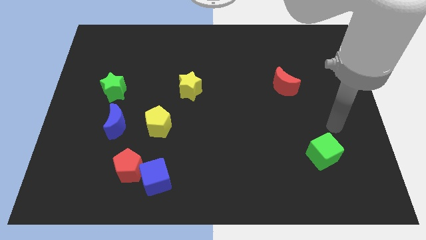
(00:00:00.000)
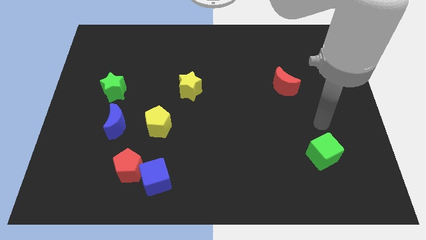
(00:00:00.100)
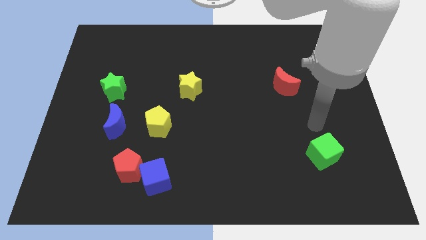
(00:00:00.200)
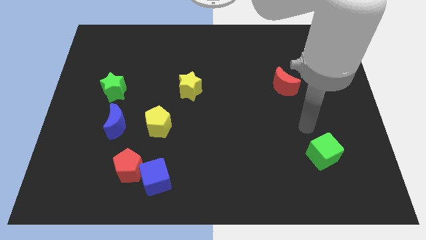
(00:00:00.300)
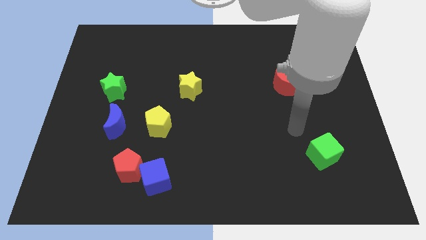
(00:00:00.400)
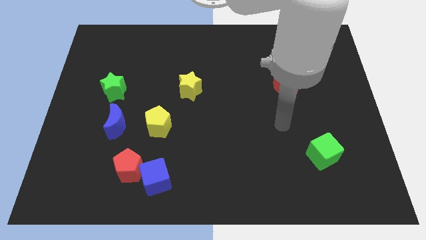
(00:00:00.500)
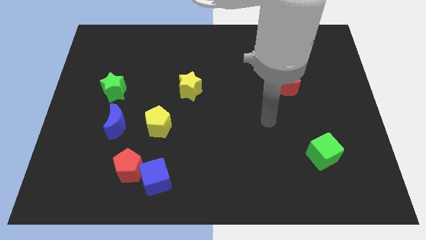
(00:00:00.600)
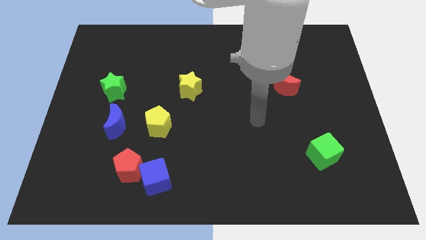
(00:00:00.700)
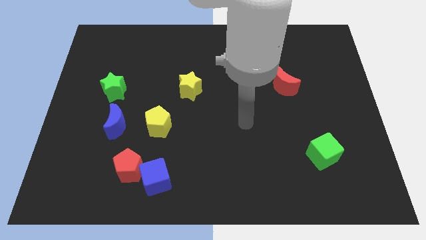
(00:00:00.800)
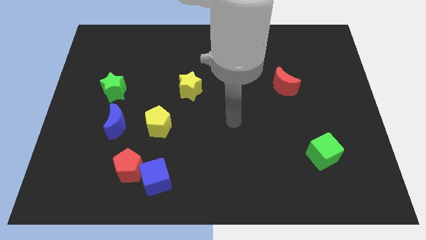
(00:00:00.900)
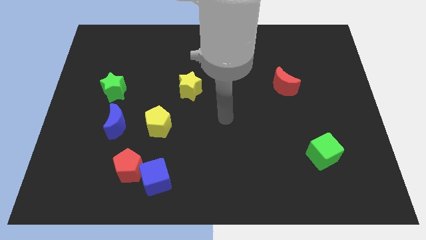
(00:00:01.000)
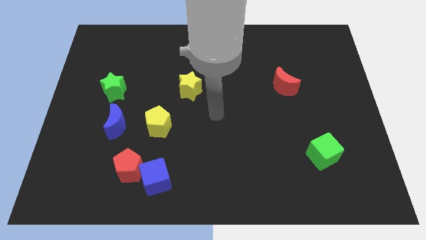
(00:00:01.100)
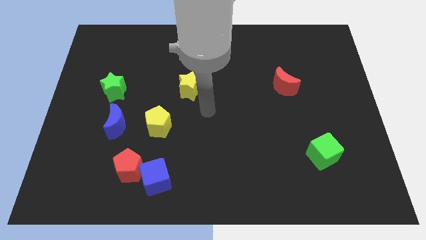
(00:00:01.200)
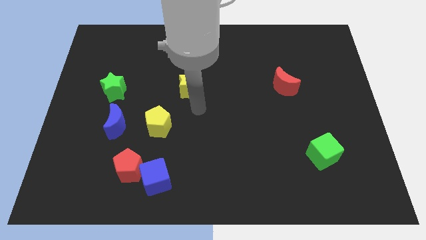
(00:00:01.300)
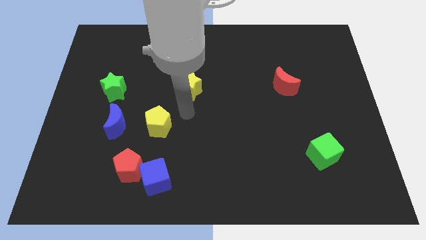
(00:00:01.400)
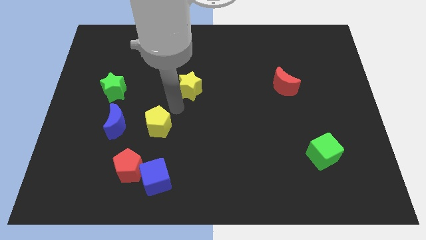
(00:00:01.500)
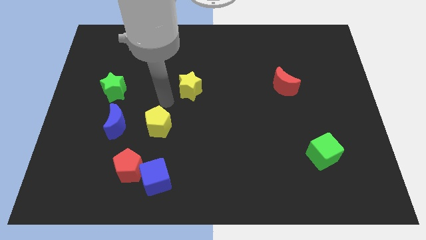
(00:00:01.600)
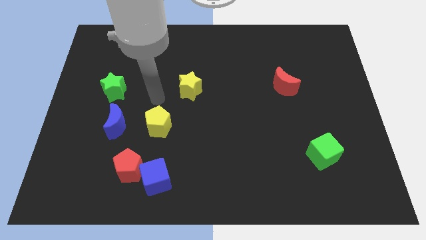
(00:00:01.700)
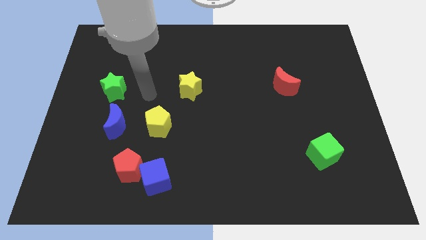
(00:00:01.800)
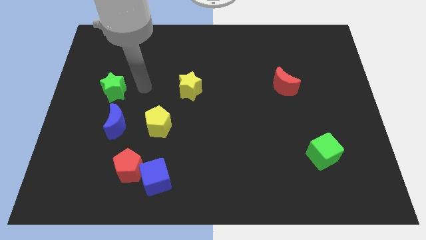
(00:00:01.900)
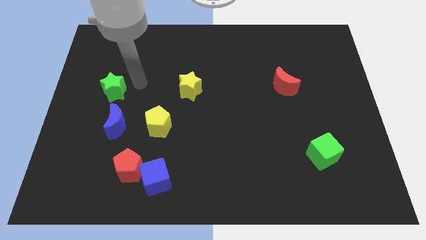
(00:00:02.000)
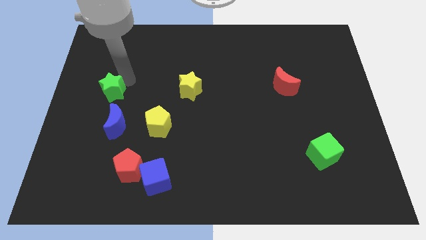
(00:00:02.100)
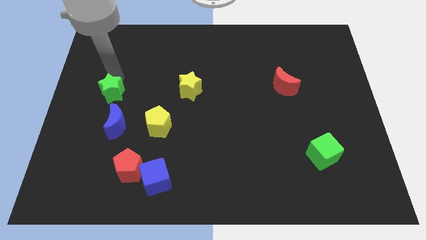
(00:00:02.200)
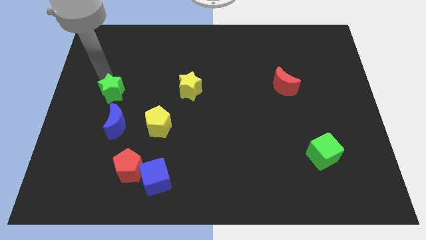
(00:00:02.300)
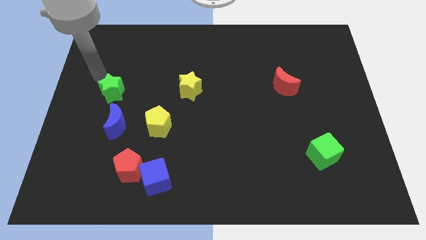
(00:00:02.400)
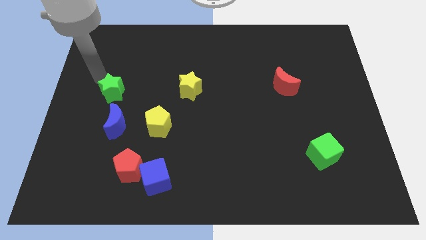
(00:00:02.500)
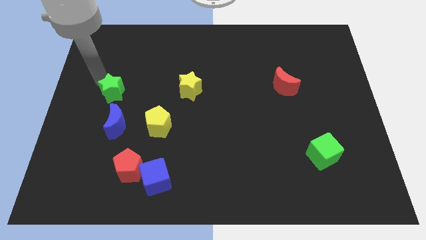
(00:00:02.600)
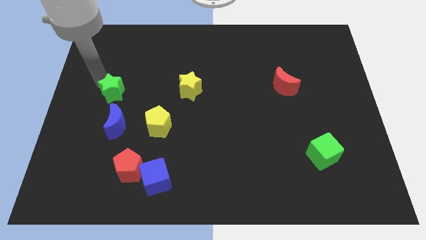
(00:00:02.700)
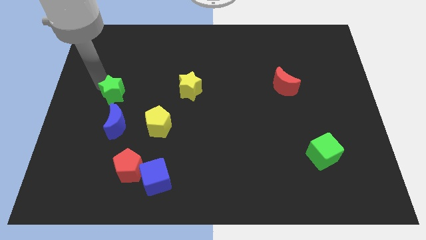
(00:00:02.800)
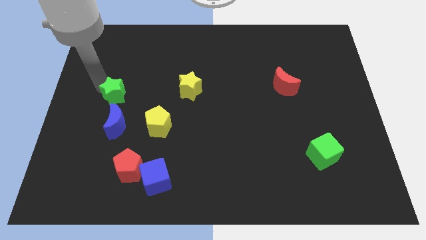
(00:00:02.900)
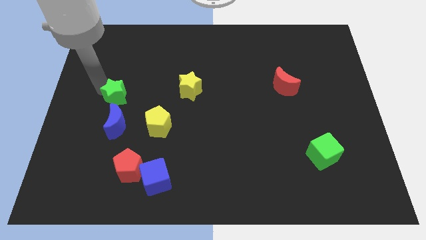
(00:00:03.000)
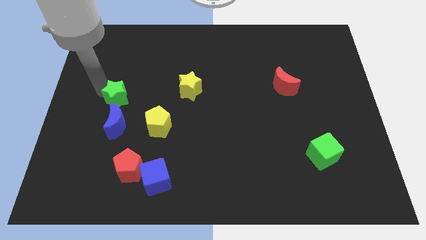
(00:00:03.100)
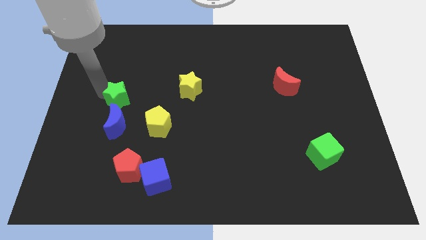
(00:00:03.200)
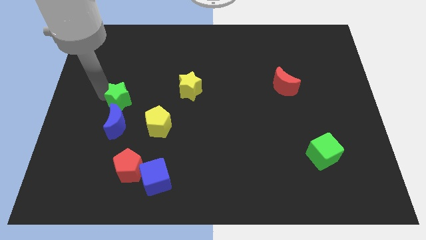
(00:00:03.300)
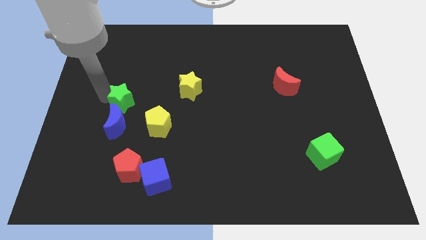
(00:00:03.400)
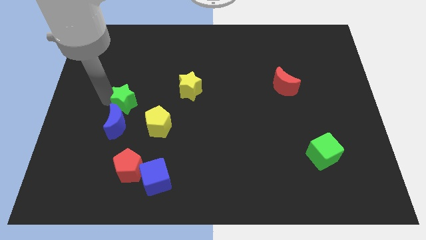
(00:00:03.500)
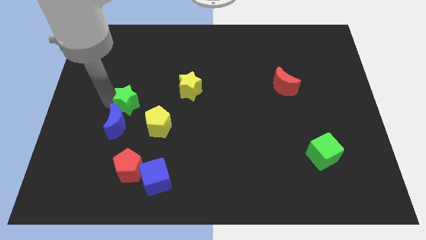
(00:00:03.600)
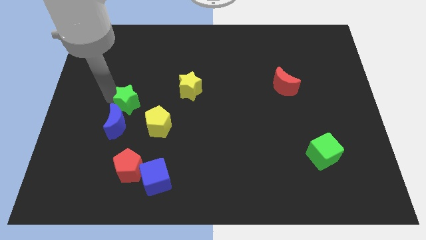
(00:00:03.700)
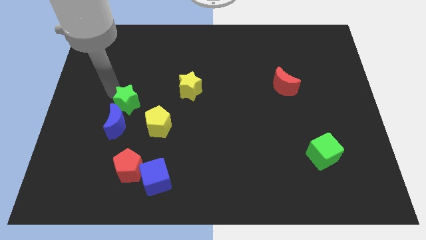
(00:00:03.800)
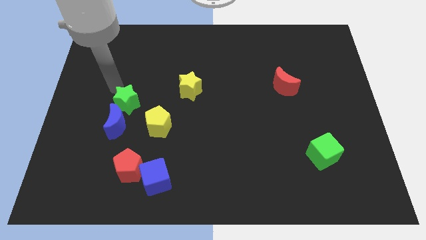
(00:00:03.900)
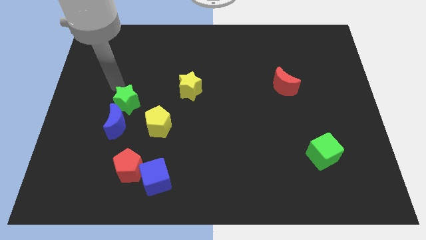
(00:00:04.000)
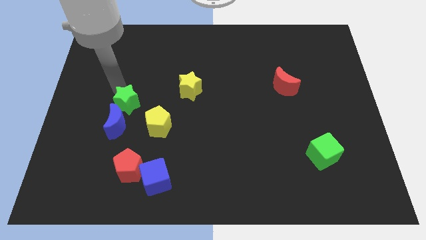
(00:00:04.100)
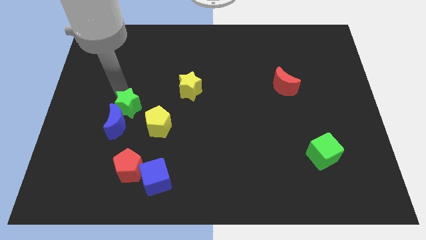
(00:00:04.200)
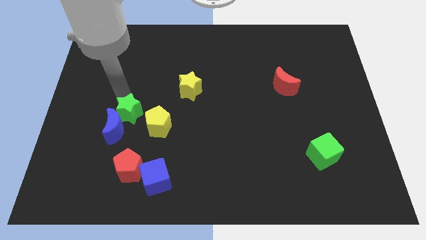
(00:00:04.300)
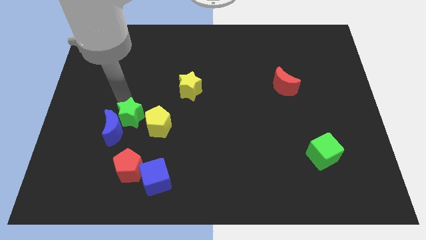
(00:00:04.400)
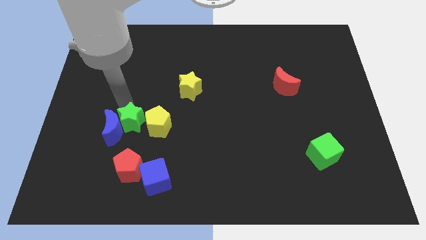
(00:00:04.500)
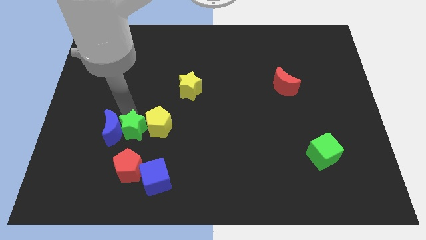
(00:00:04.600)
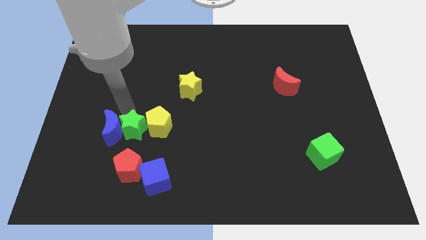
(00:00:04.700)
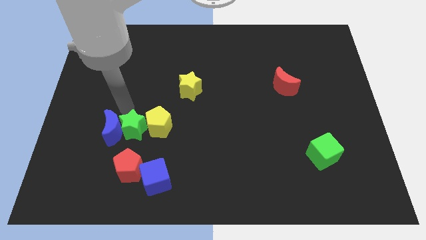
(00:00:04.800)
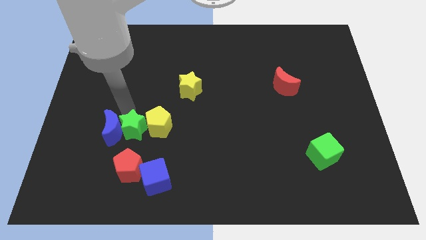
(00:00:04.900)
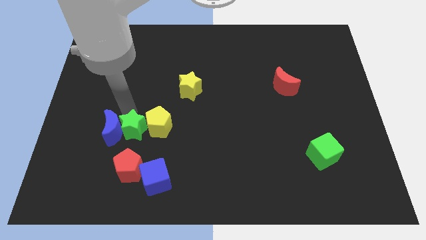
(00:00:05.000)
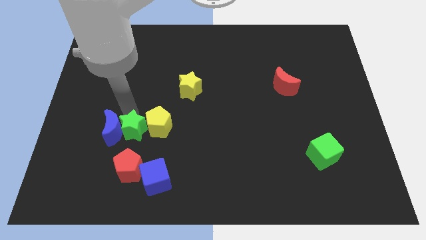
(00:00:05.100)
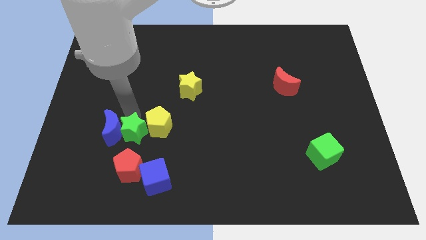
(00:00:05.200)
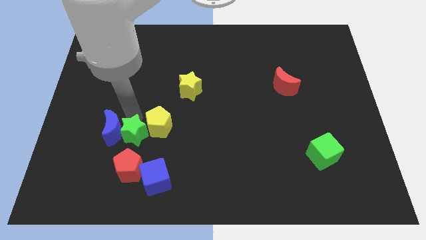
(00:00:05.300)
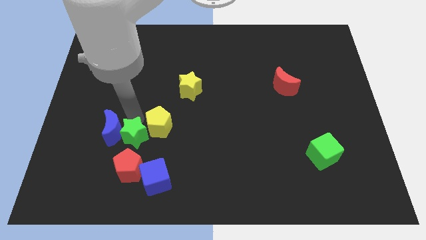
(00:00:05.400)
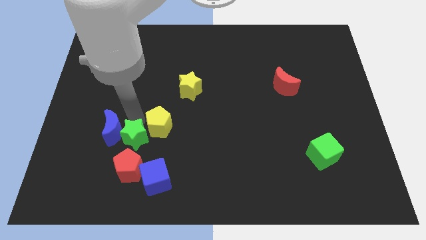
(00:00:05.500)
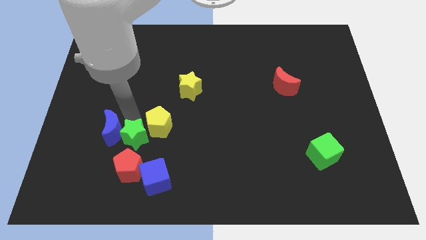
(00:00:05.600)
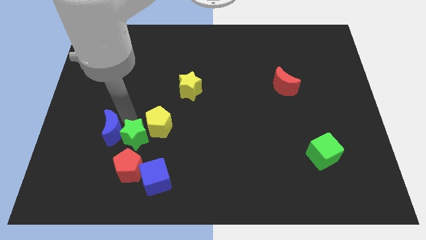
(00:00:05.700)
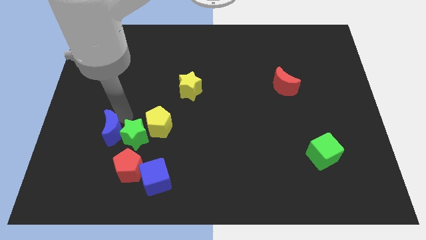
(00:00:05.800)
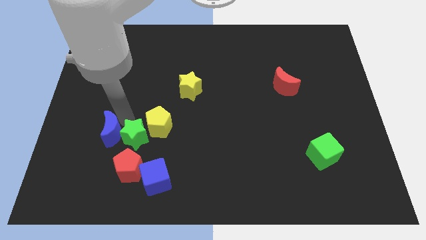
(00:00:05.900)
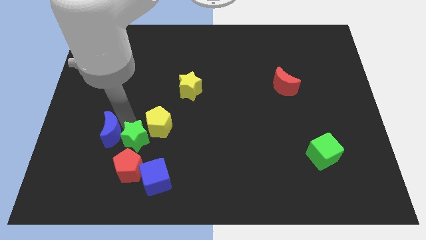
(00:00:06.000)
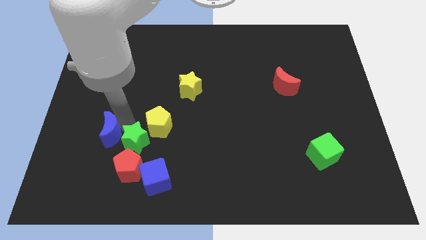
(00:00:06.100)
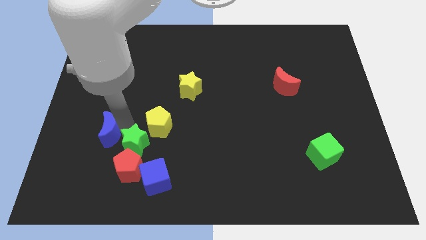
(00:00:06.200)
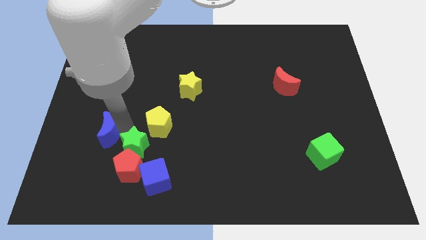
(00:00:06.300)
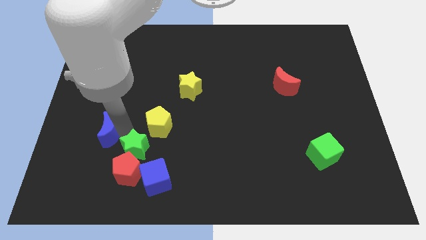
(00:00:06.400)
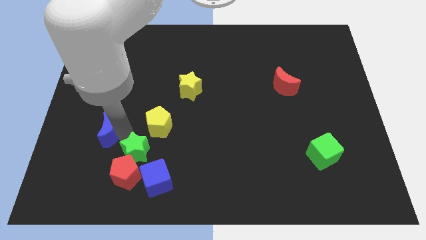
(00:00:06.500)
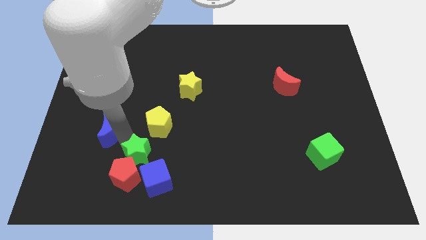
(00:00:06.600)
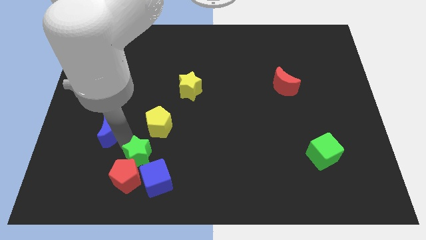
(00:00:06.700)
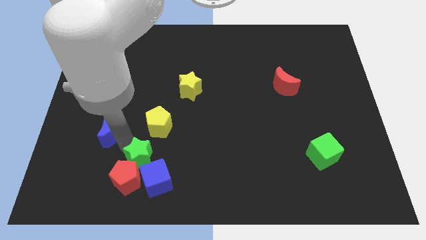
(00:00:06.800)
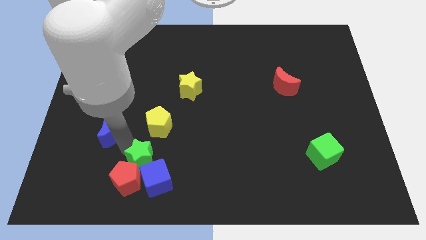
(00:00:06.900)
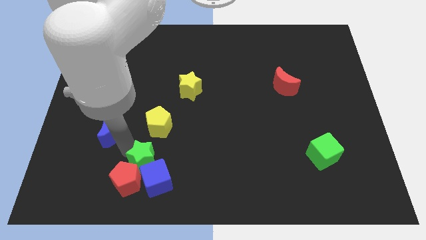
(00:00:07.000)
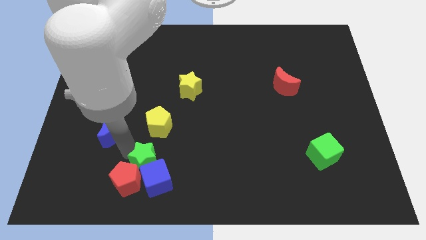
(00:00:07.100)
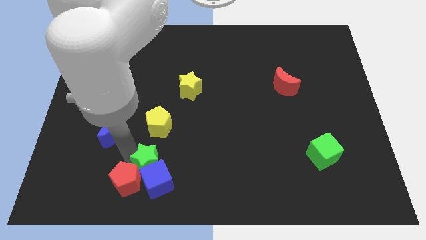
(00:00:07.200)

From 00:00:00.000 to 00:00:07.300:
move the green star down and to the right

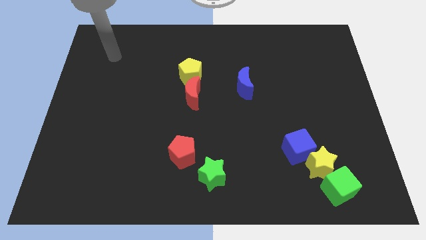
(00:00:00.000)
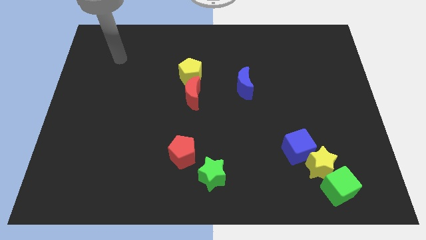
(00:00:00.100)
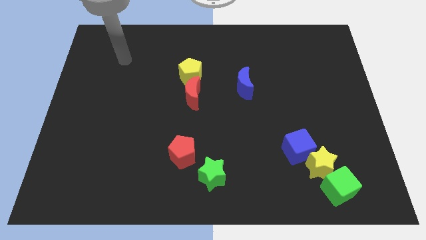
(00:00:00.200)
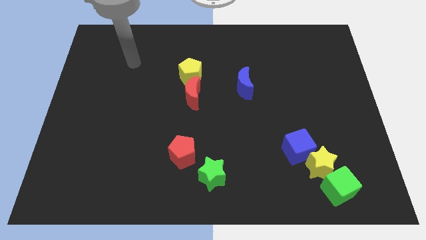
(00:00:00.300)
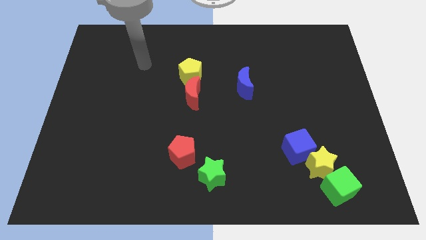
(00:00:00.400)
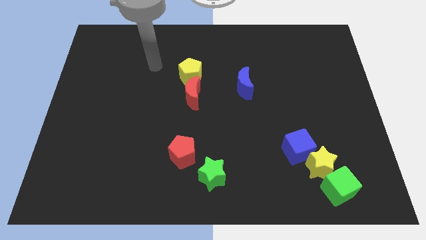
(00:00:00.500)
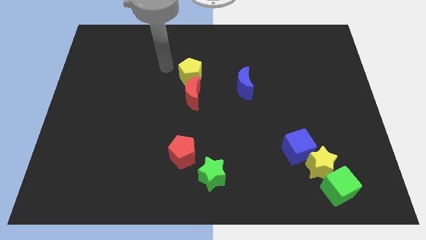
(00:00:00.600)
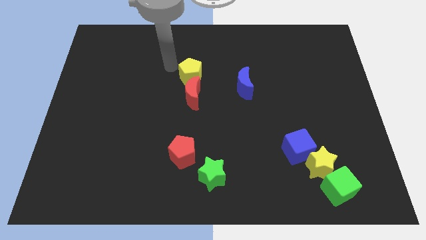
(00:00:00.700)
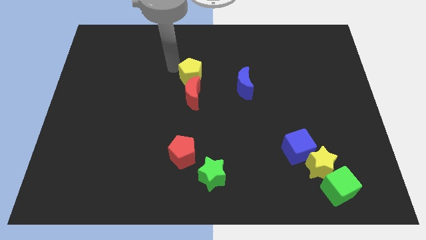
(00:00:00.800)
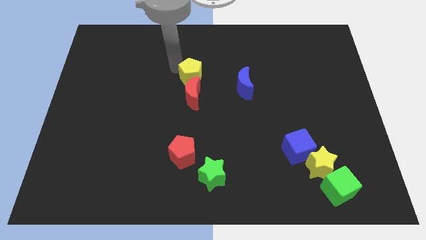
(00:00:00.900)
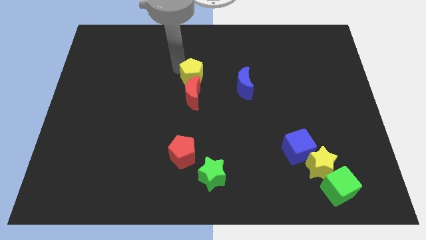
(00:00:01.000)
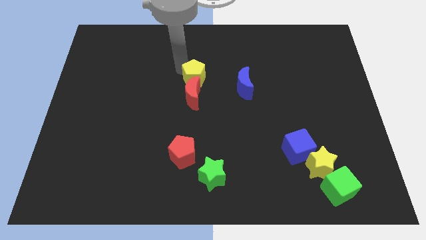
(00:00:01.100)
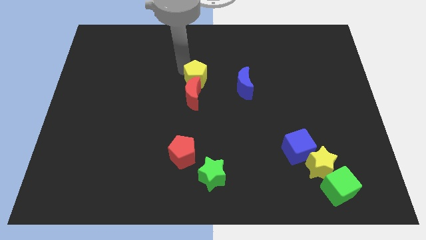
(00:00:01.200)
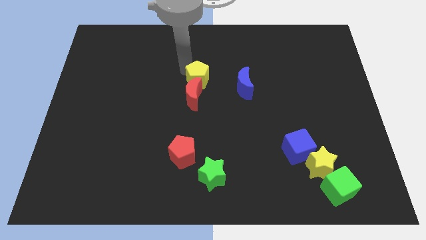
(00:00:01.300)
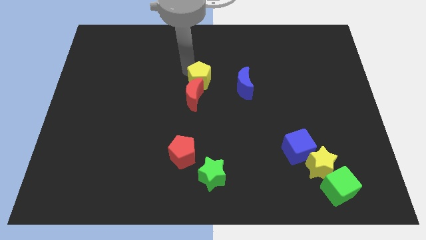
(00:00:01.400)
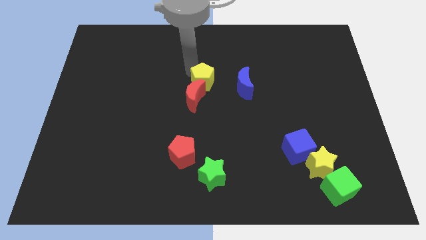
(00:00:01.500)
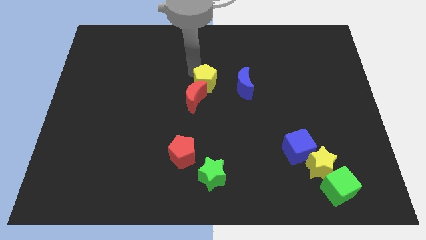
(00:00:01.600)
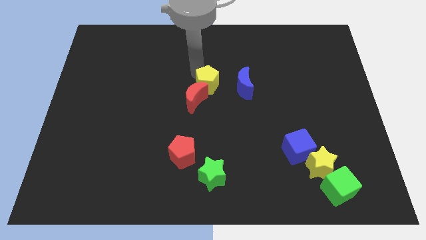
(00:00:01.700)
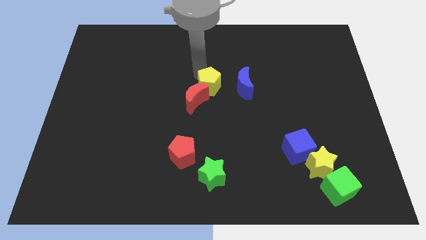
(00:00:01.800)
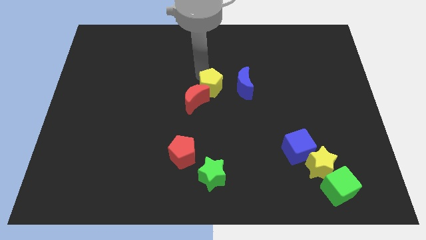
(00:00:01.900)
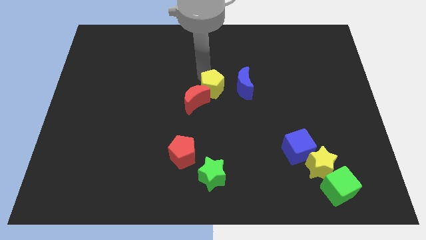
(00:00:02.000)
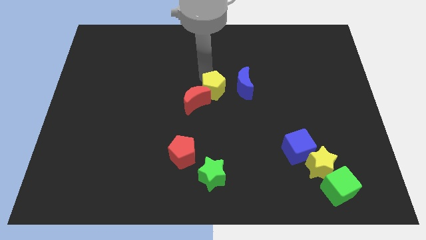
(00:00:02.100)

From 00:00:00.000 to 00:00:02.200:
slide the yellow pentagon a bit downwards and right diagonally
